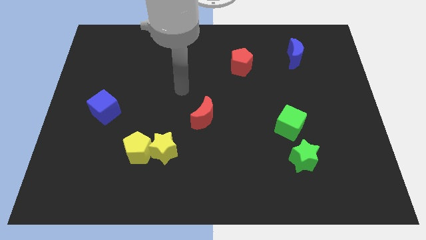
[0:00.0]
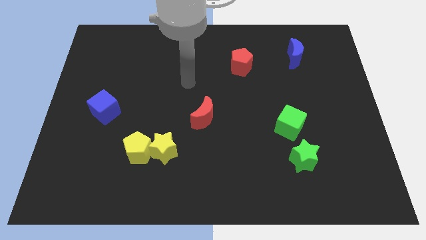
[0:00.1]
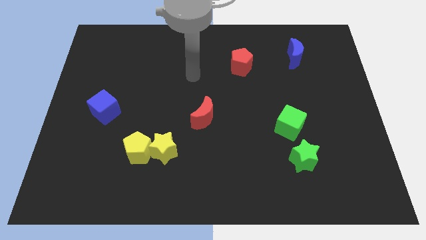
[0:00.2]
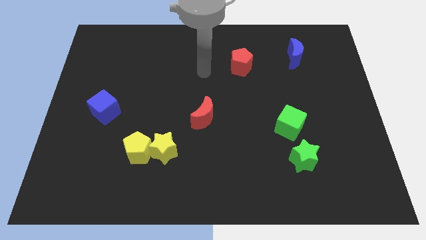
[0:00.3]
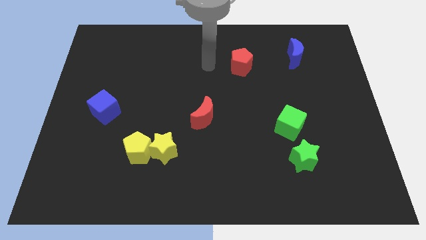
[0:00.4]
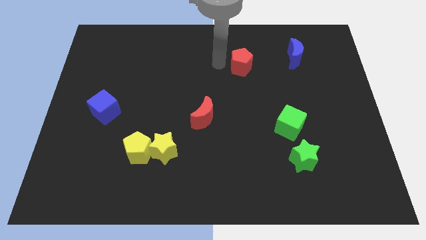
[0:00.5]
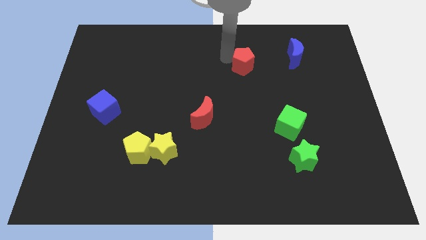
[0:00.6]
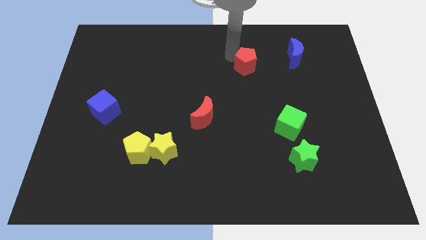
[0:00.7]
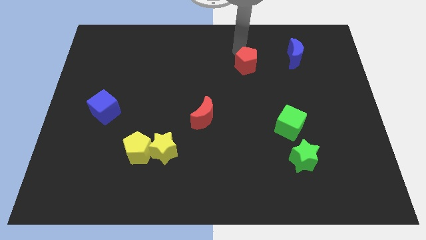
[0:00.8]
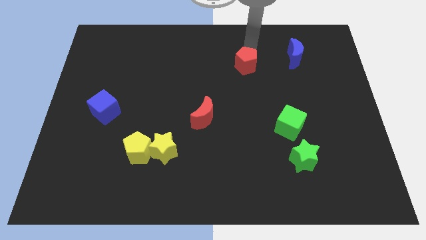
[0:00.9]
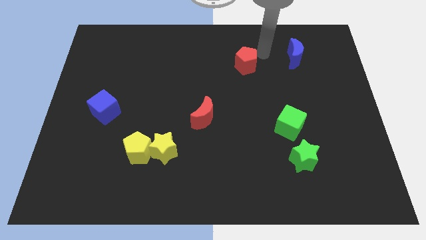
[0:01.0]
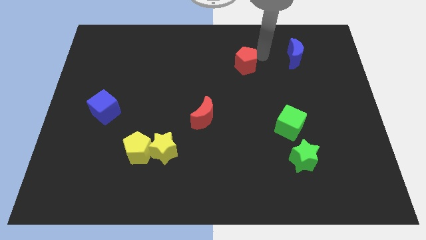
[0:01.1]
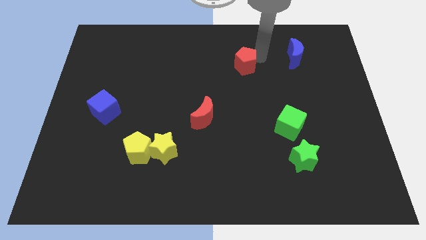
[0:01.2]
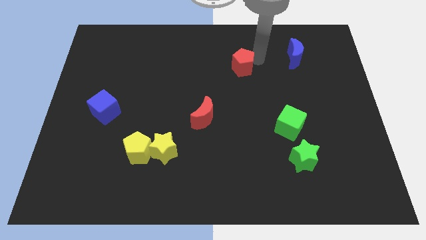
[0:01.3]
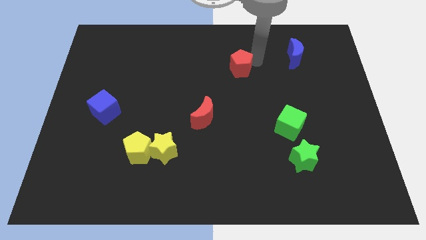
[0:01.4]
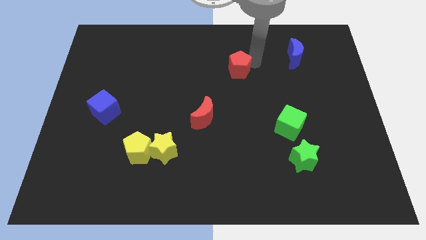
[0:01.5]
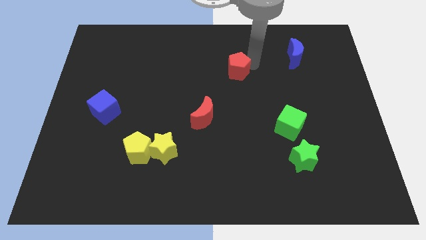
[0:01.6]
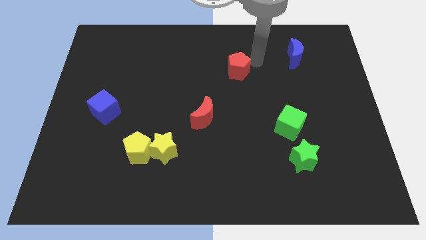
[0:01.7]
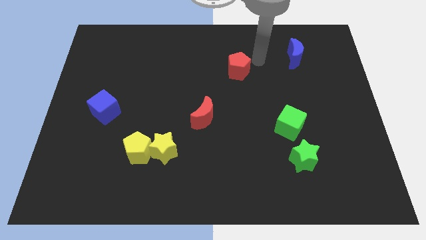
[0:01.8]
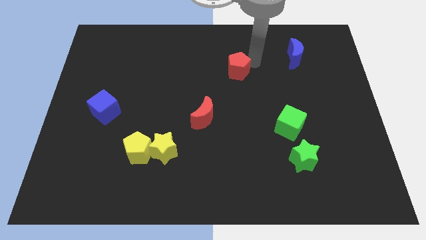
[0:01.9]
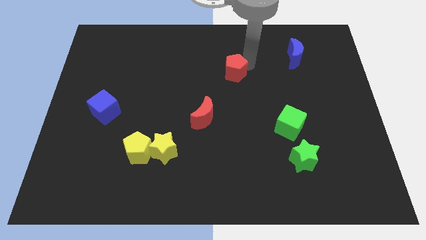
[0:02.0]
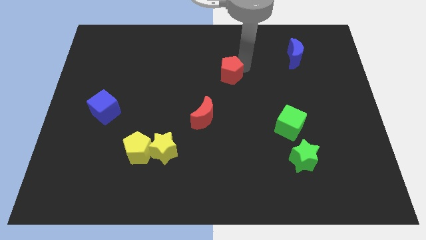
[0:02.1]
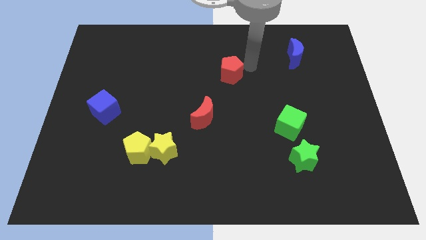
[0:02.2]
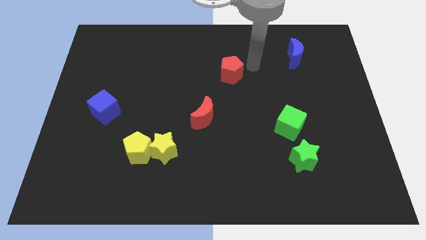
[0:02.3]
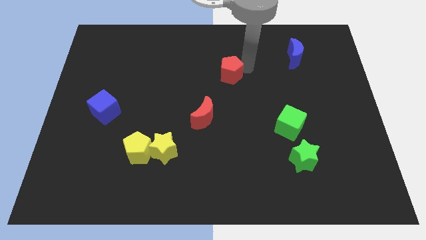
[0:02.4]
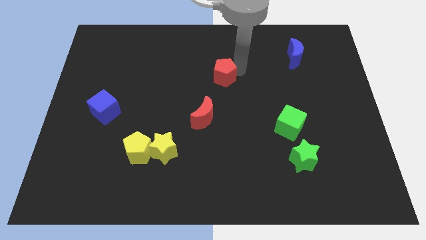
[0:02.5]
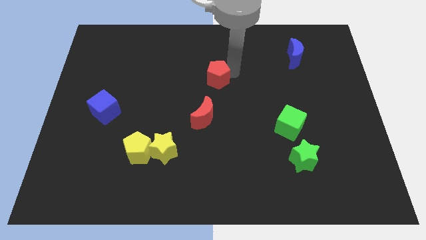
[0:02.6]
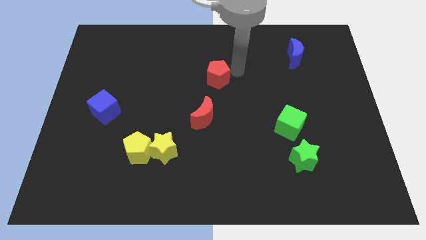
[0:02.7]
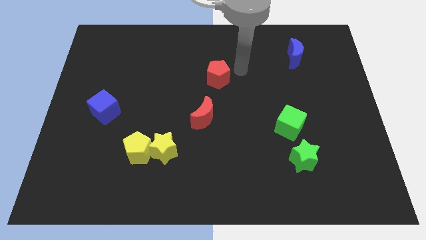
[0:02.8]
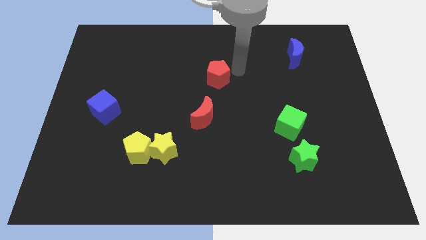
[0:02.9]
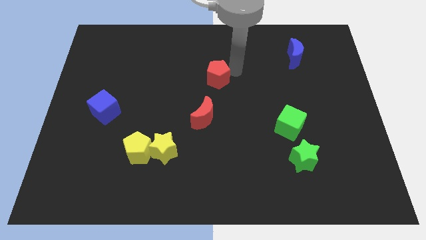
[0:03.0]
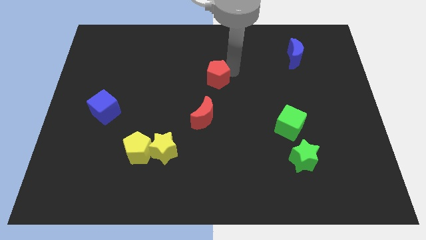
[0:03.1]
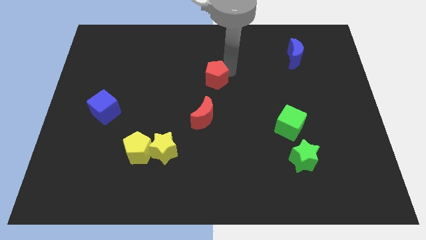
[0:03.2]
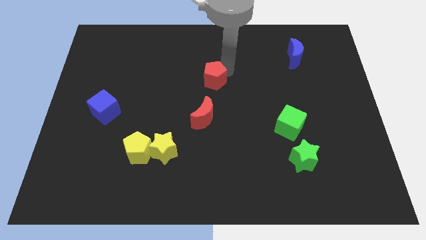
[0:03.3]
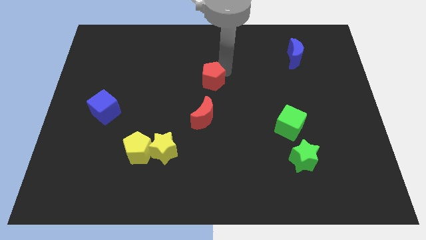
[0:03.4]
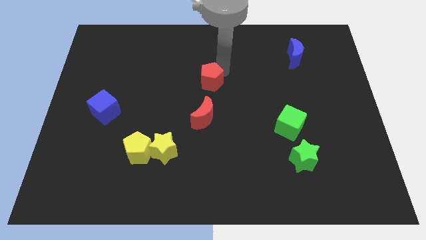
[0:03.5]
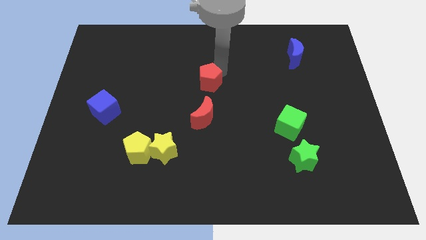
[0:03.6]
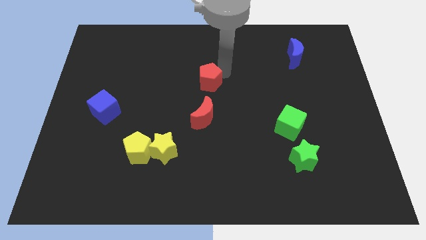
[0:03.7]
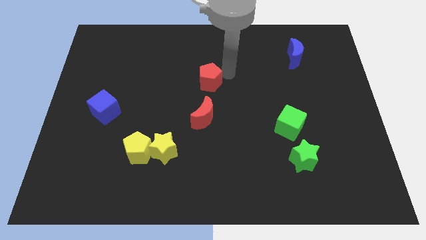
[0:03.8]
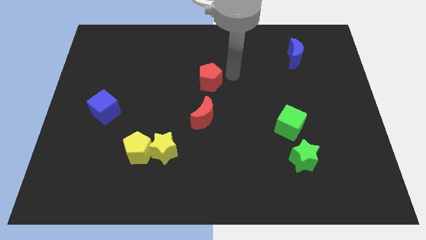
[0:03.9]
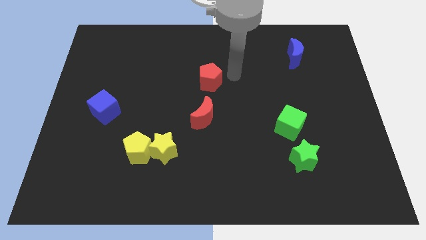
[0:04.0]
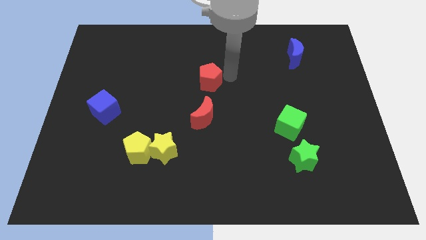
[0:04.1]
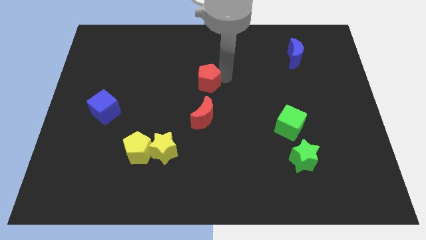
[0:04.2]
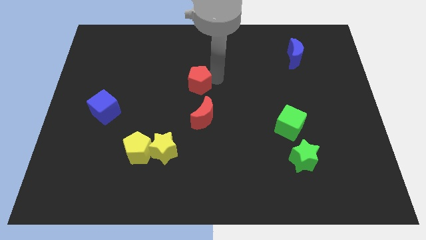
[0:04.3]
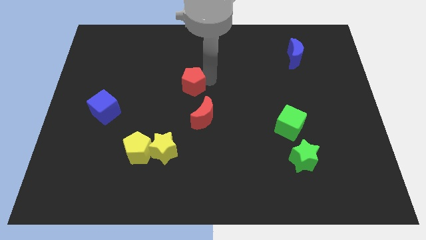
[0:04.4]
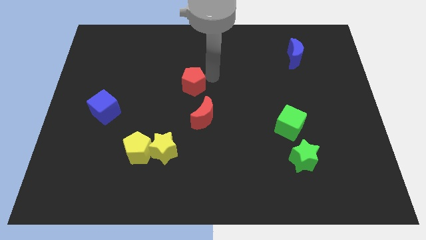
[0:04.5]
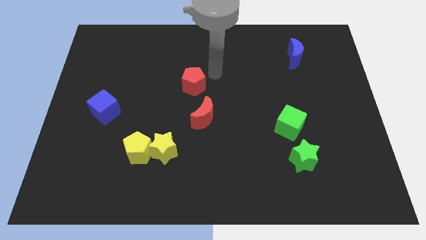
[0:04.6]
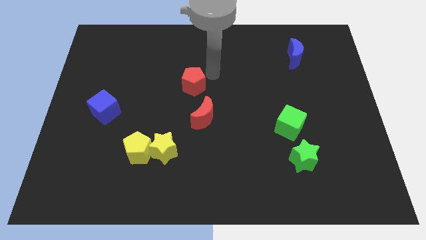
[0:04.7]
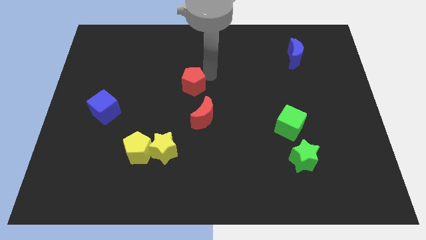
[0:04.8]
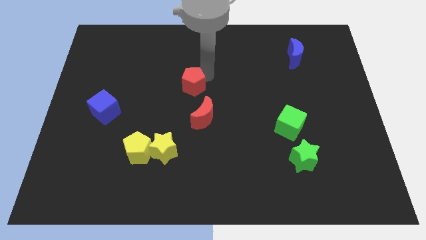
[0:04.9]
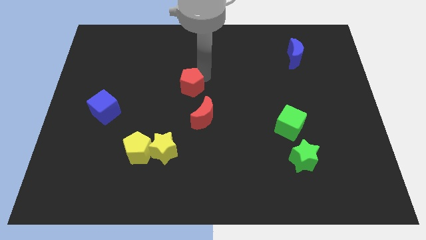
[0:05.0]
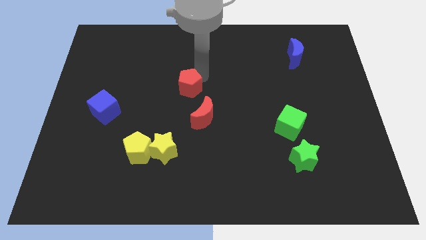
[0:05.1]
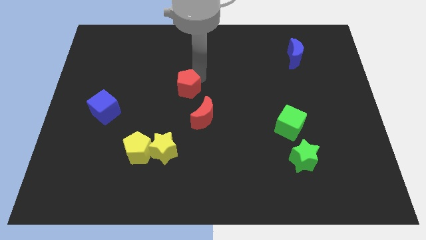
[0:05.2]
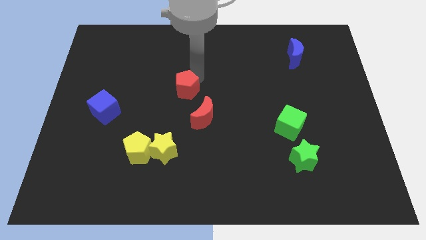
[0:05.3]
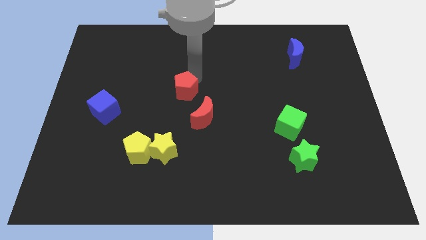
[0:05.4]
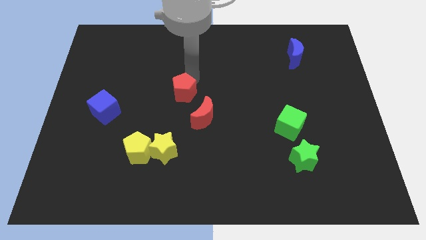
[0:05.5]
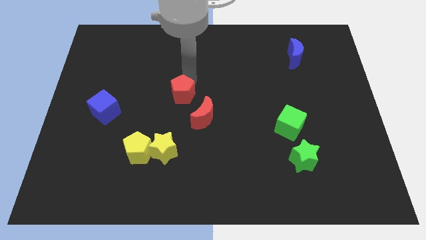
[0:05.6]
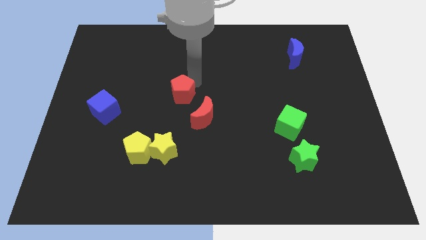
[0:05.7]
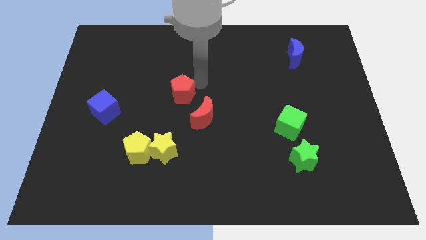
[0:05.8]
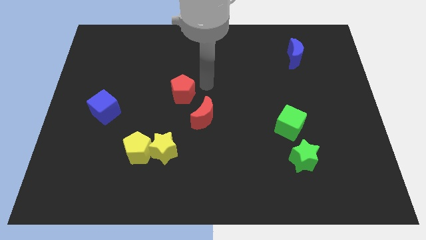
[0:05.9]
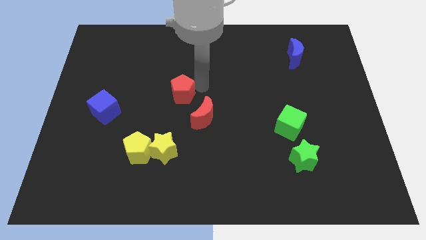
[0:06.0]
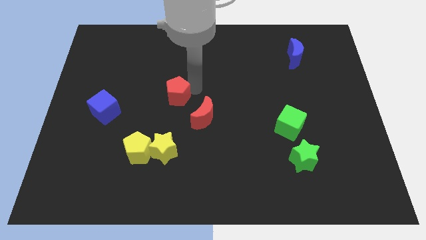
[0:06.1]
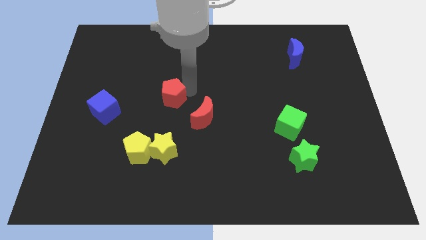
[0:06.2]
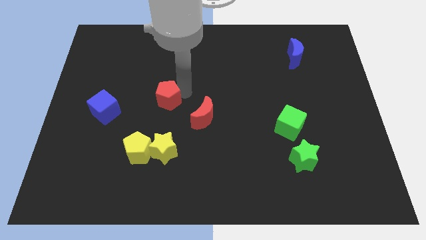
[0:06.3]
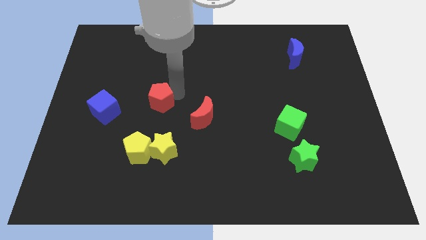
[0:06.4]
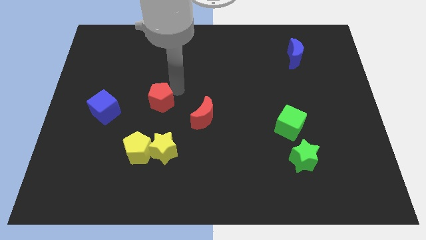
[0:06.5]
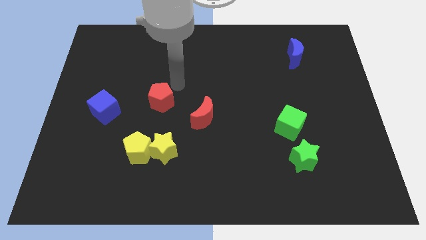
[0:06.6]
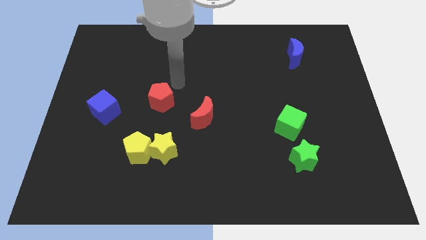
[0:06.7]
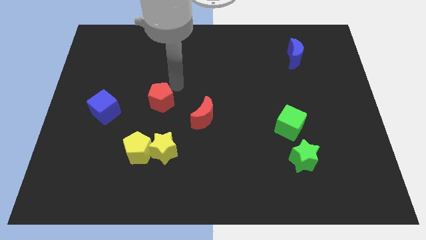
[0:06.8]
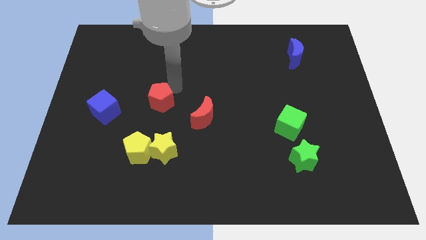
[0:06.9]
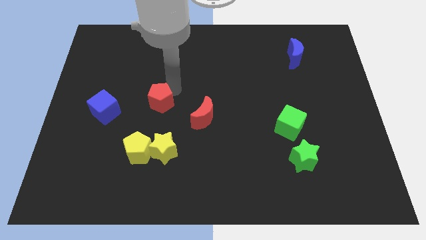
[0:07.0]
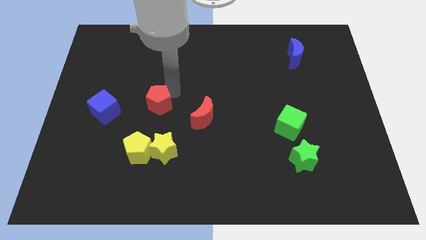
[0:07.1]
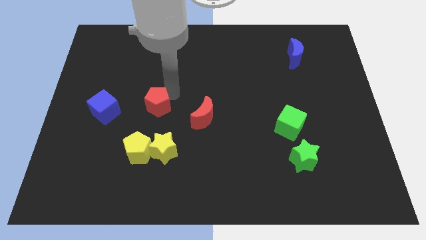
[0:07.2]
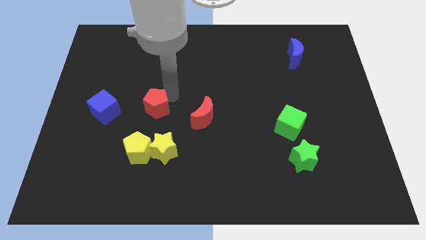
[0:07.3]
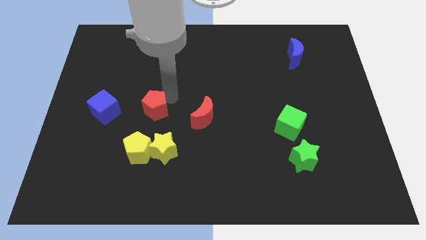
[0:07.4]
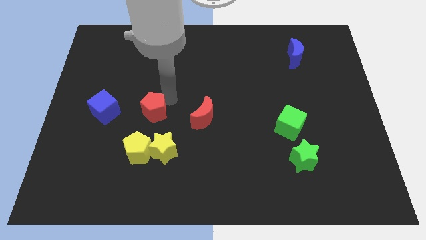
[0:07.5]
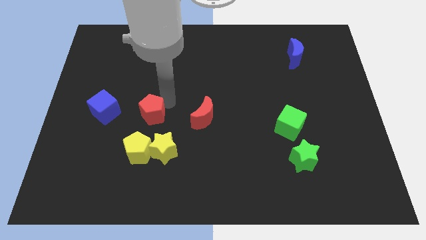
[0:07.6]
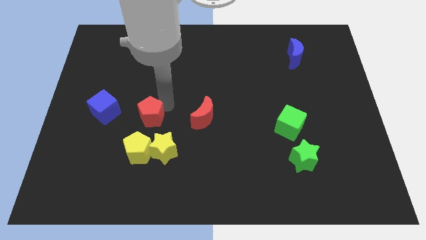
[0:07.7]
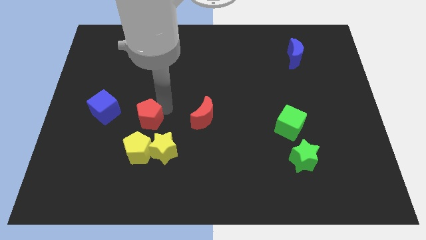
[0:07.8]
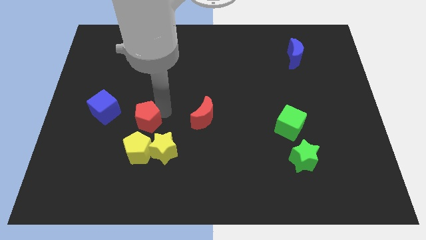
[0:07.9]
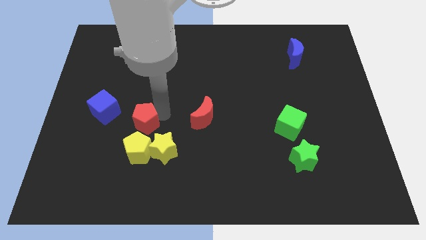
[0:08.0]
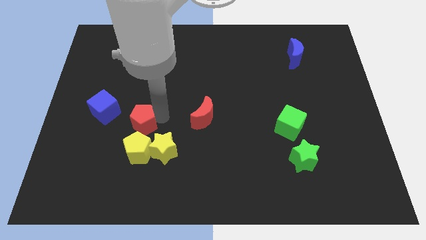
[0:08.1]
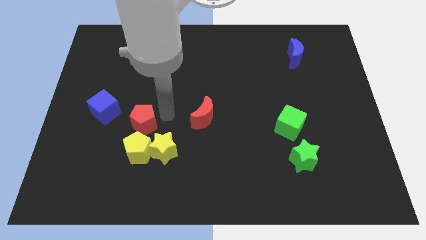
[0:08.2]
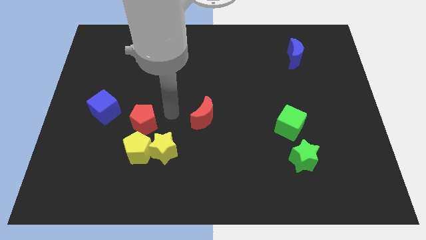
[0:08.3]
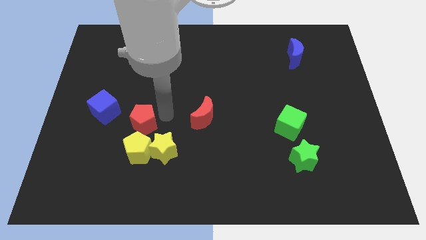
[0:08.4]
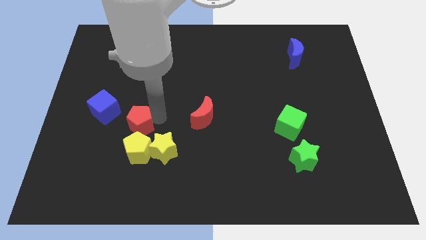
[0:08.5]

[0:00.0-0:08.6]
move the red pentagon diagonally up and to the left of the yellow pentagon
